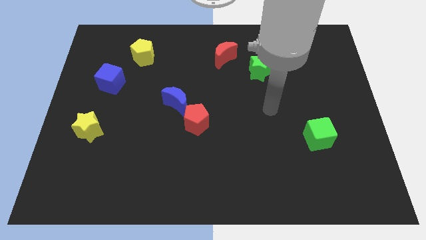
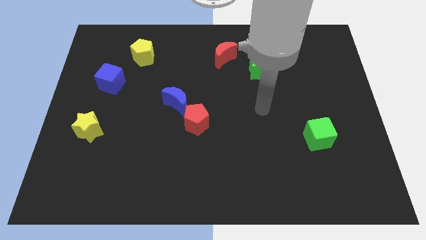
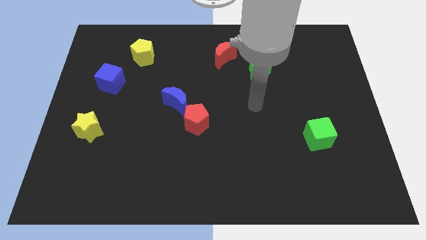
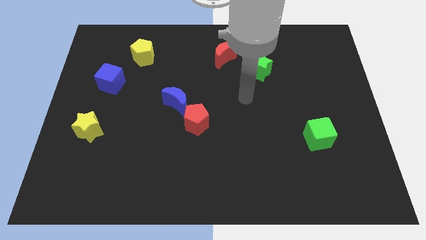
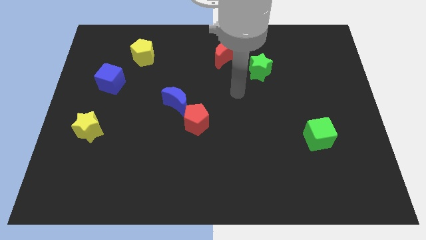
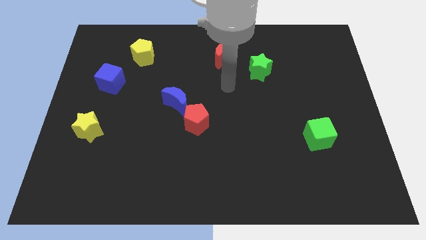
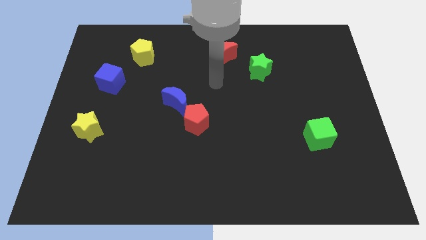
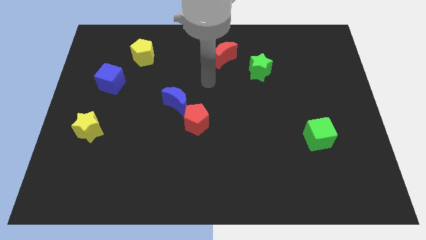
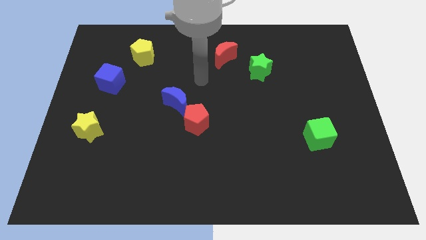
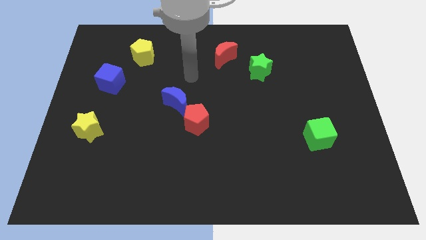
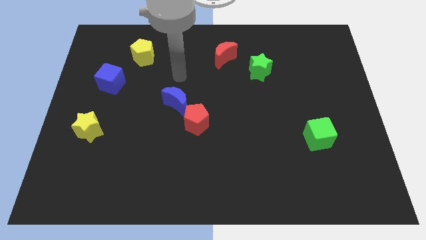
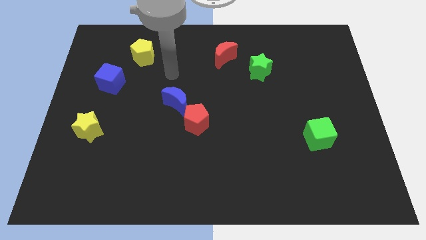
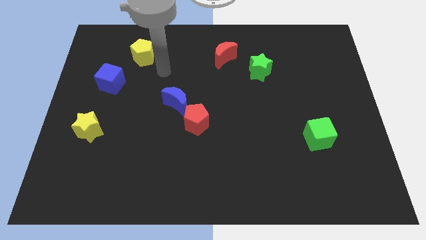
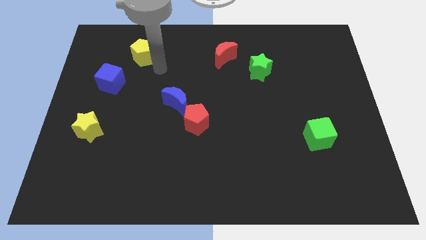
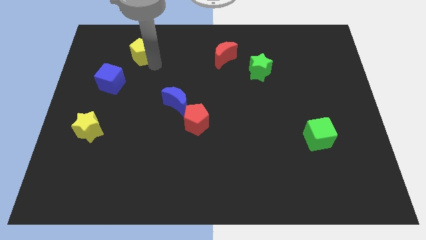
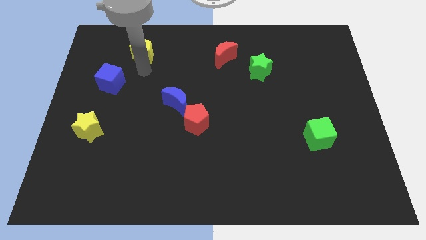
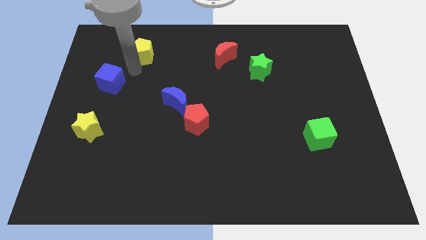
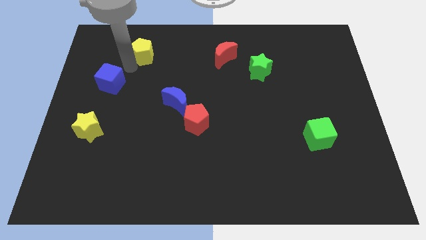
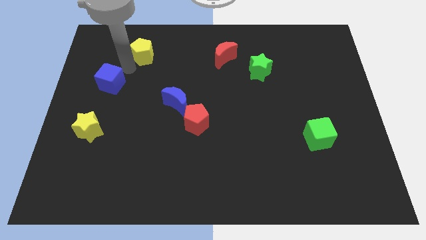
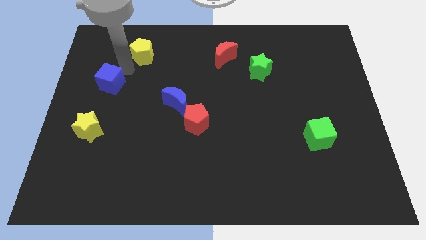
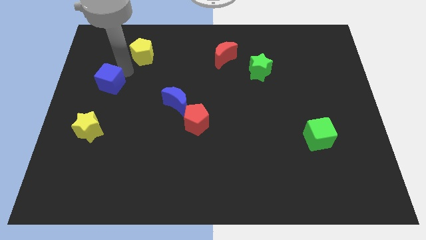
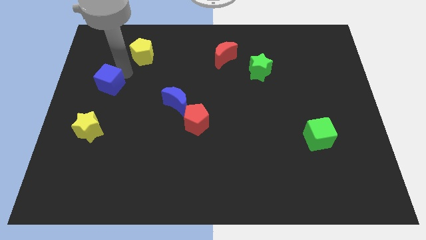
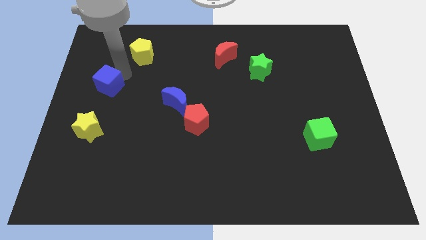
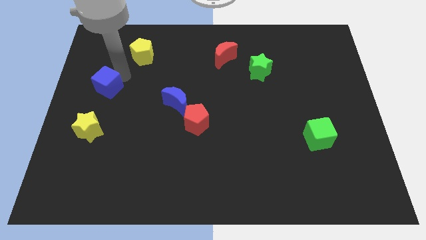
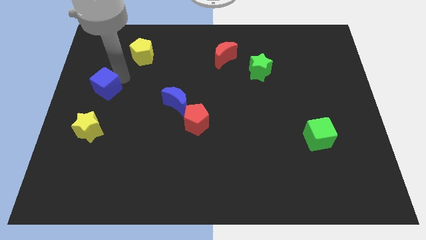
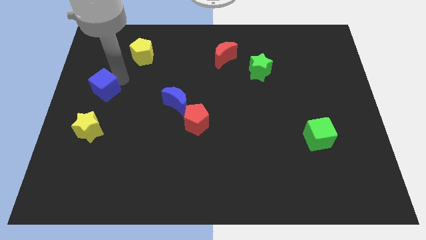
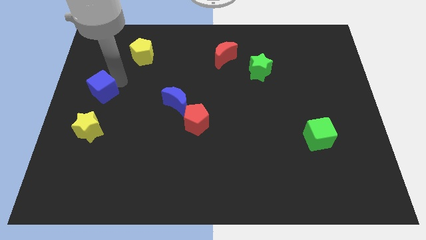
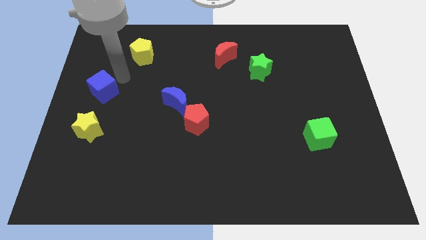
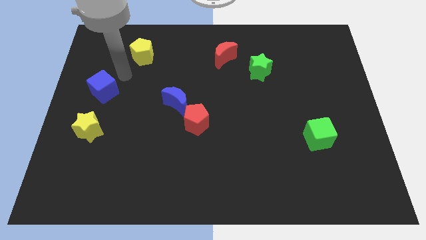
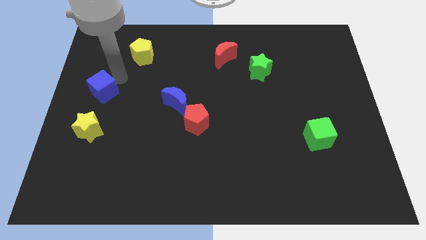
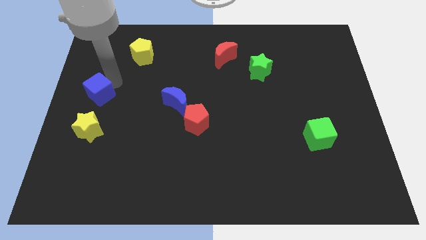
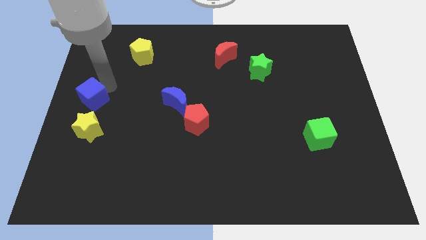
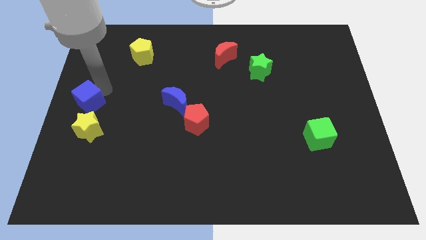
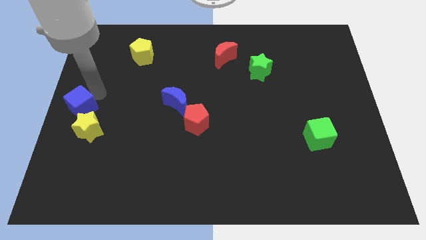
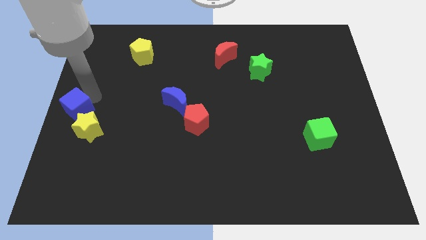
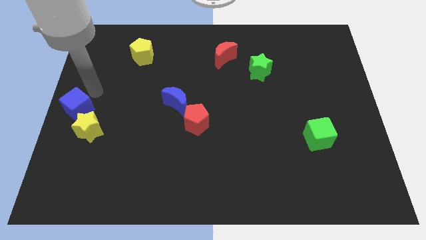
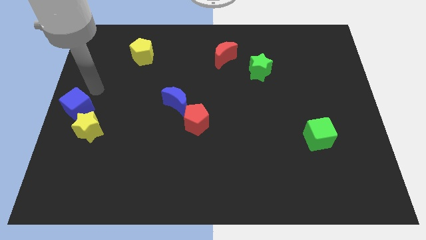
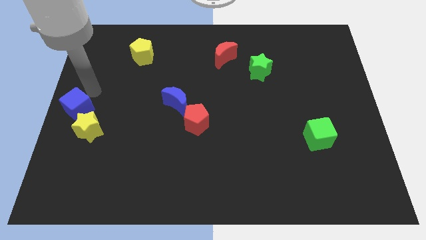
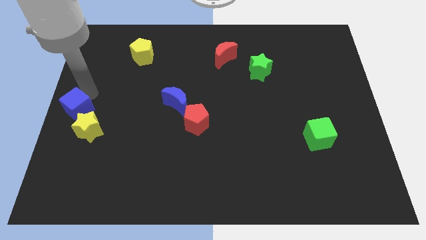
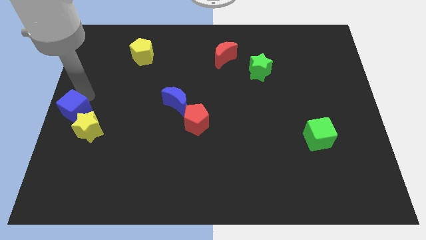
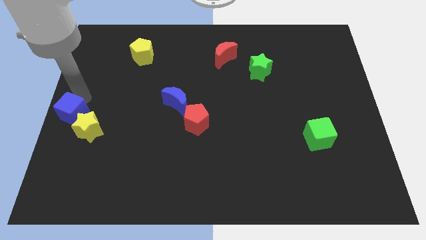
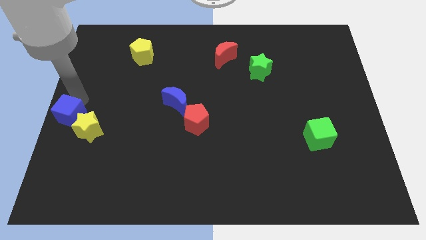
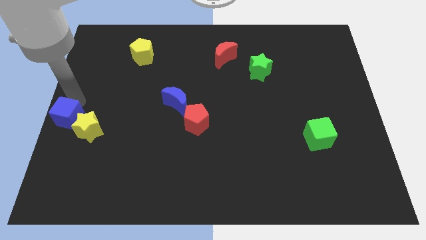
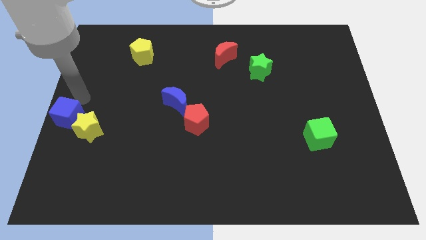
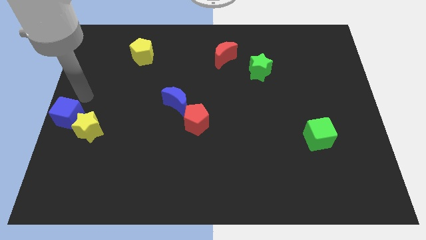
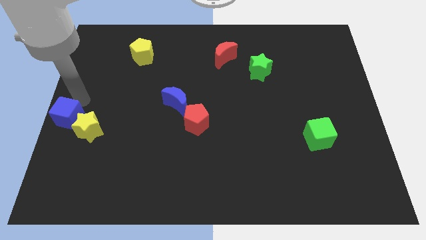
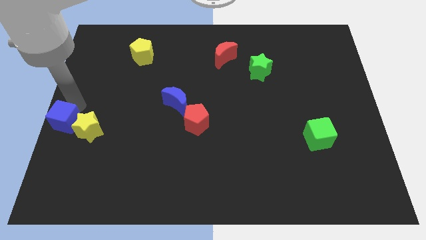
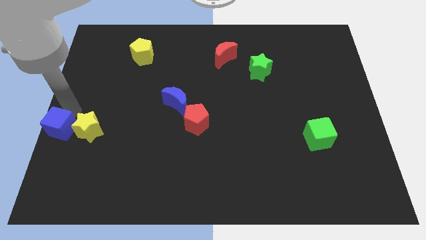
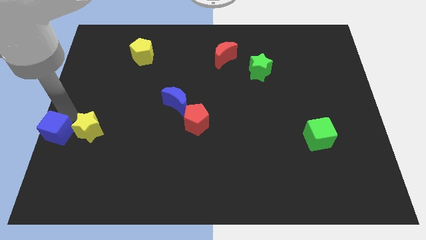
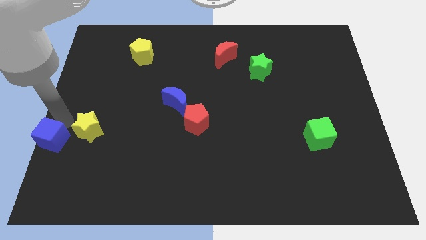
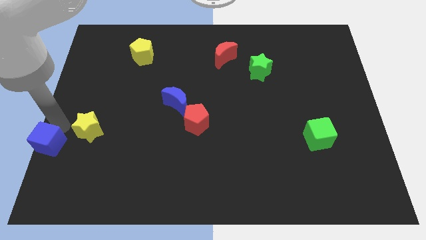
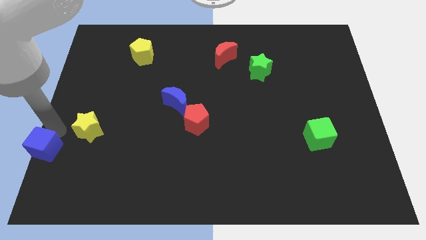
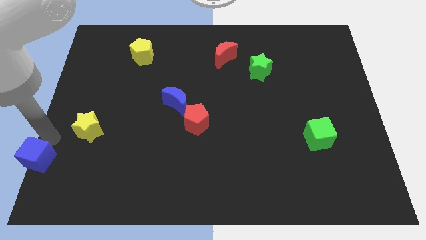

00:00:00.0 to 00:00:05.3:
move the blue cube to the bottom left corner

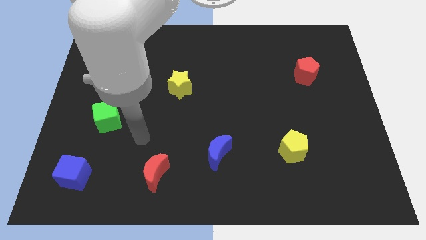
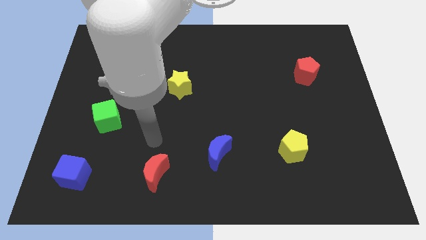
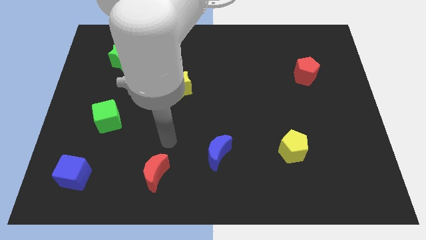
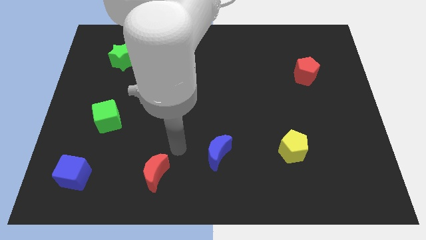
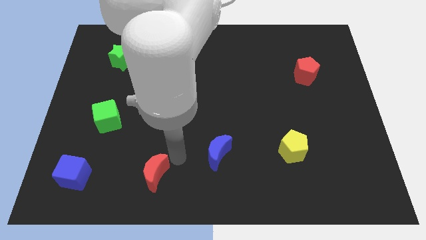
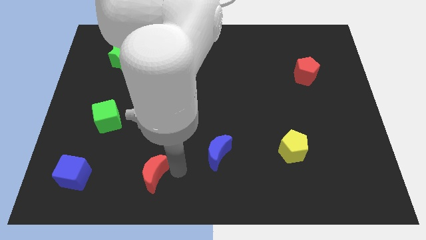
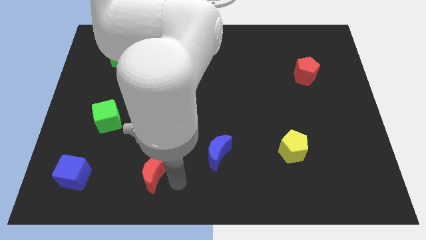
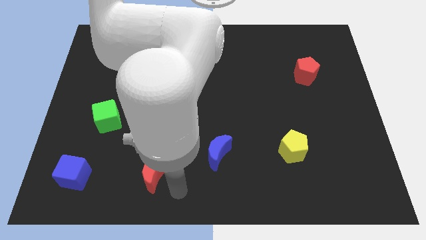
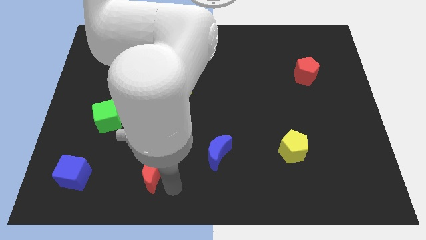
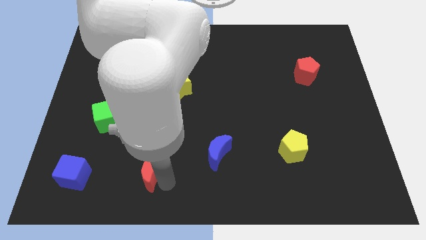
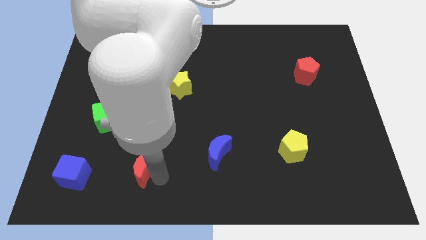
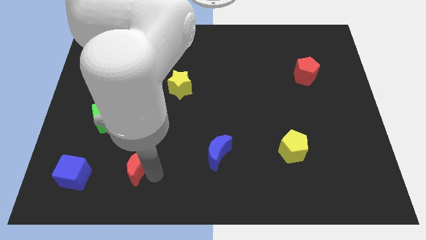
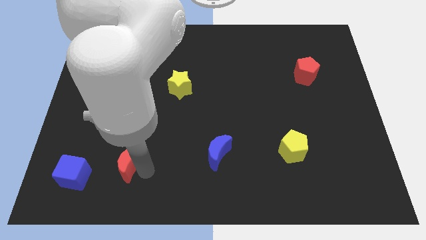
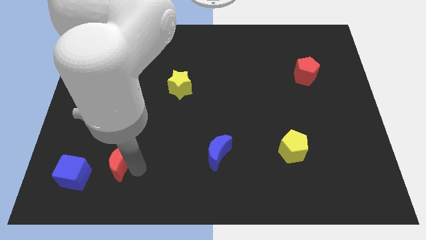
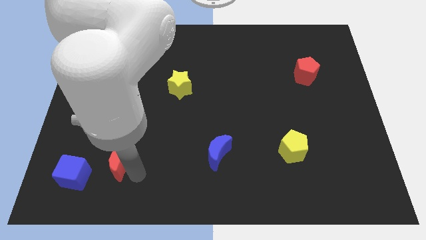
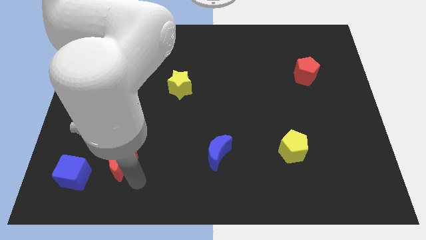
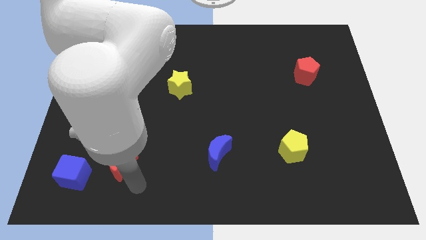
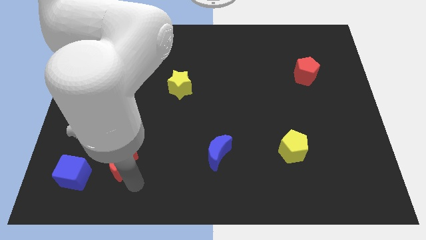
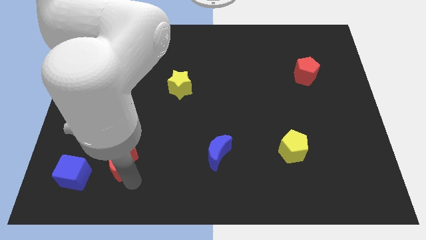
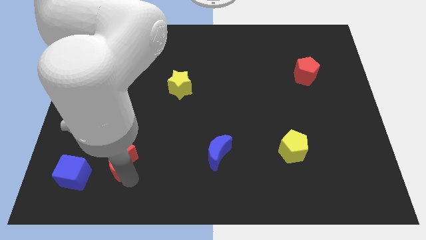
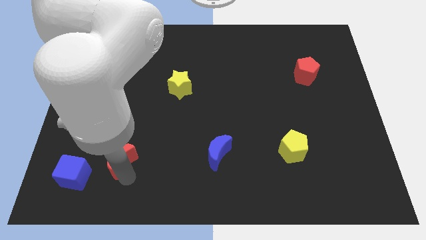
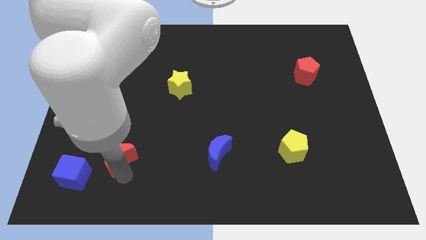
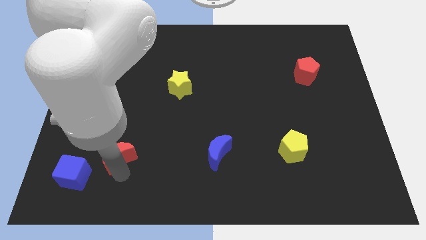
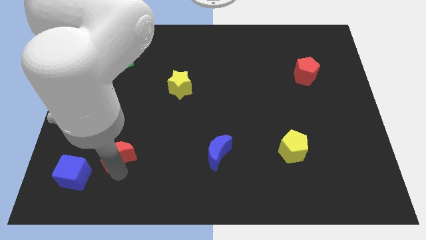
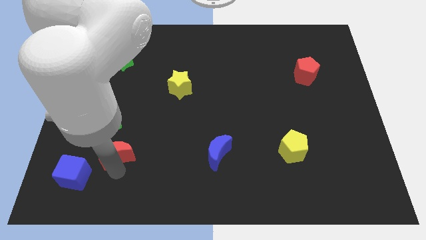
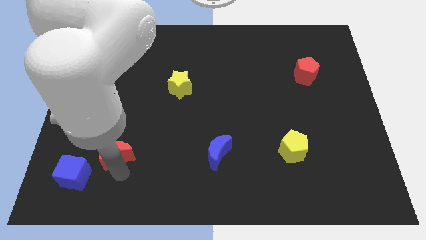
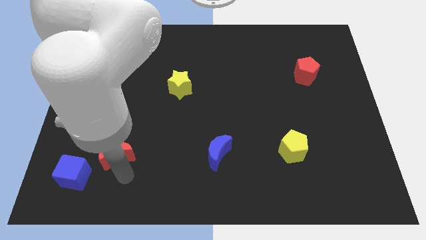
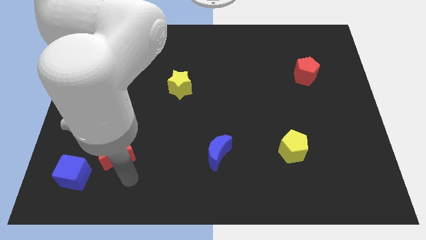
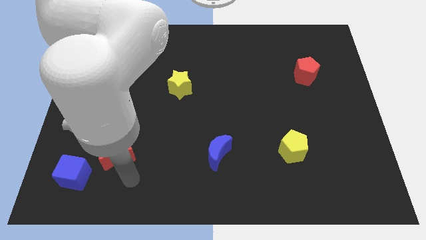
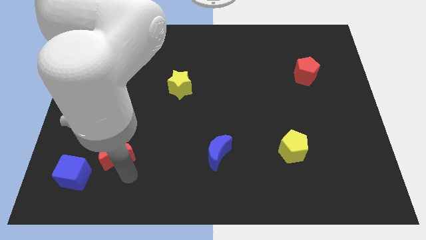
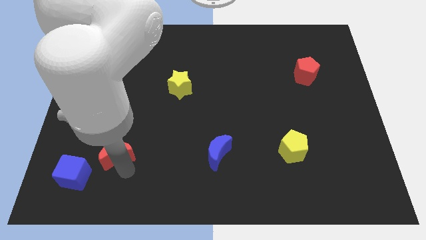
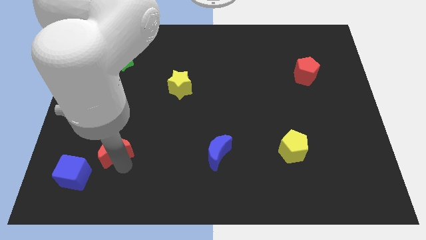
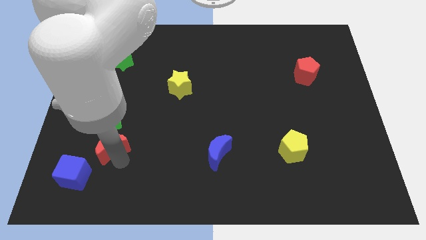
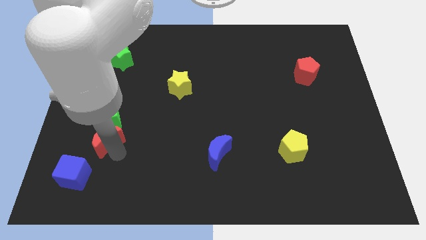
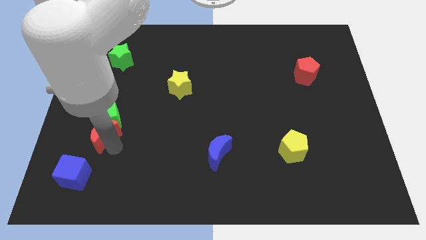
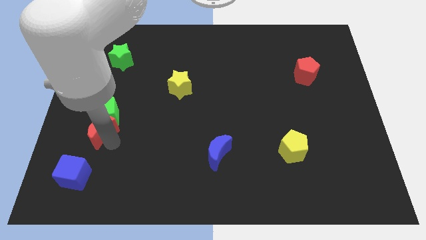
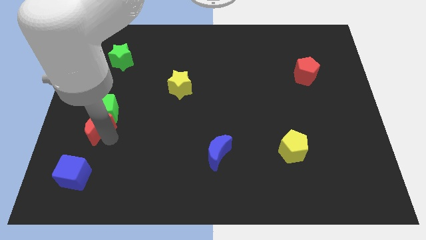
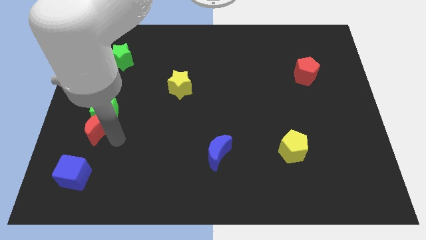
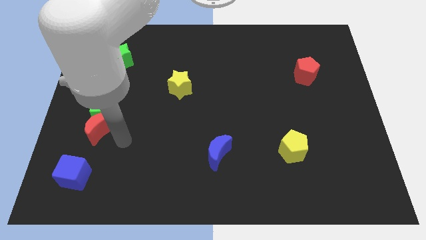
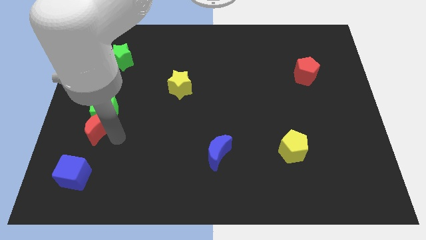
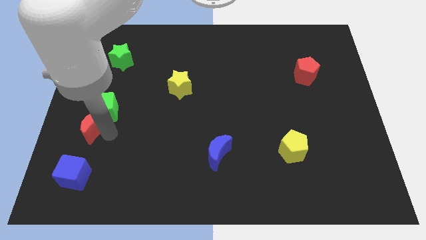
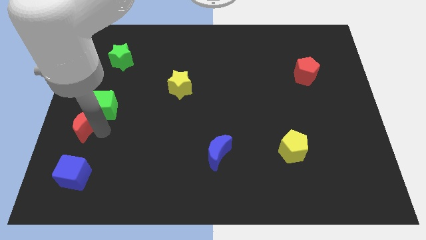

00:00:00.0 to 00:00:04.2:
slide the red moon to the left side
